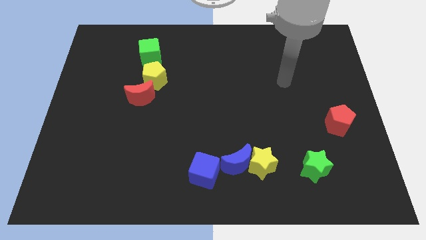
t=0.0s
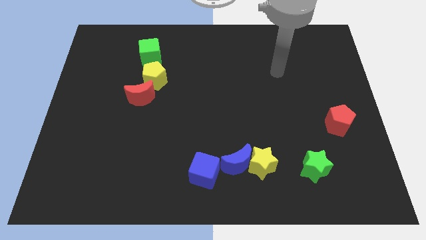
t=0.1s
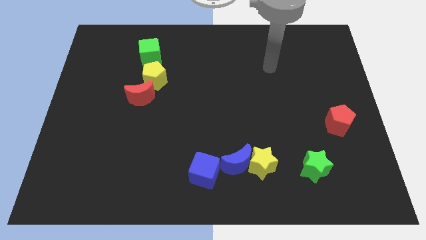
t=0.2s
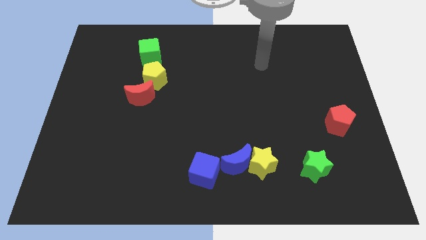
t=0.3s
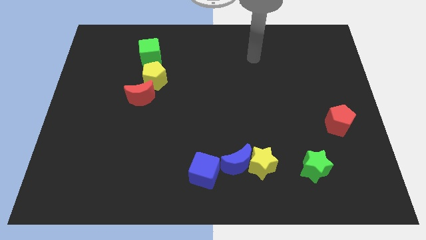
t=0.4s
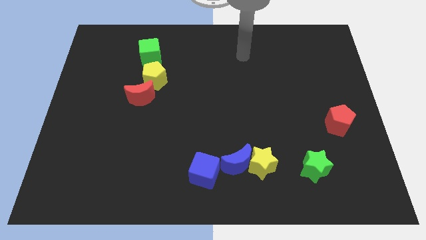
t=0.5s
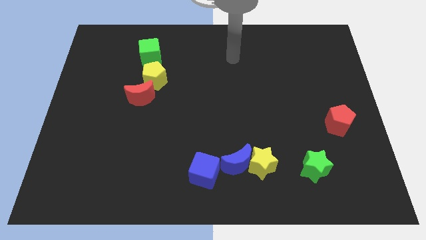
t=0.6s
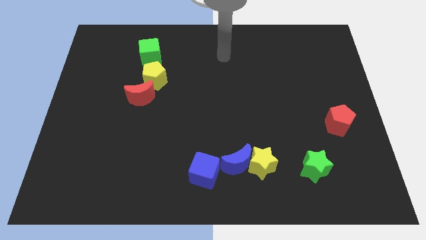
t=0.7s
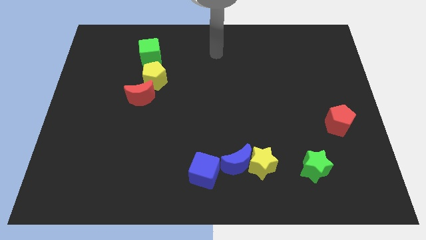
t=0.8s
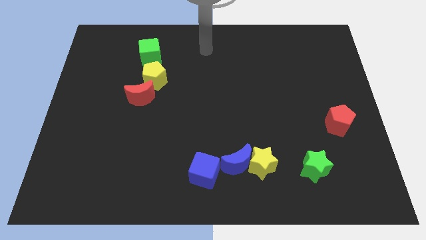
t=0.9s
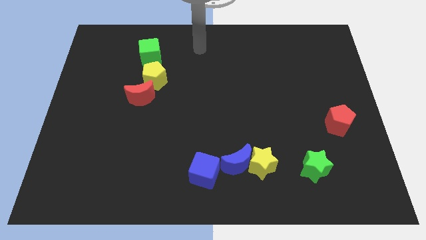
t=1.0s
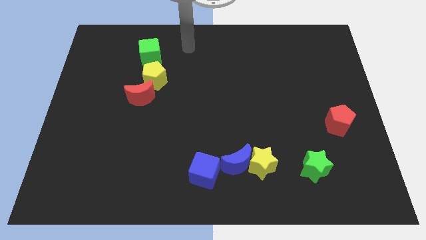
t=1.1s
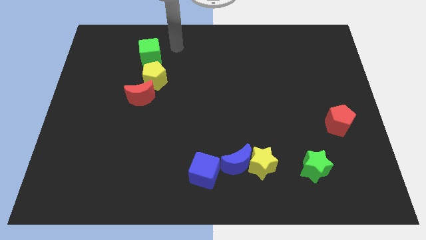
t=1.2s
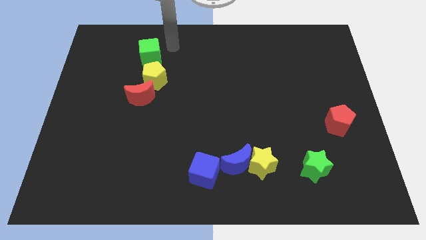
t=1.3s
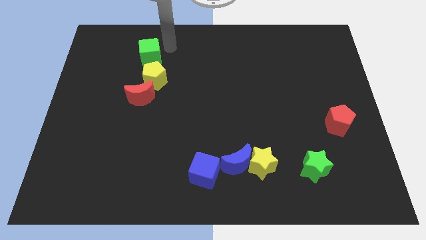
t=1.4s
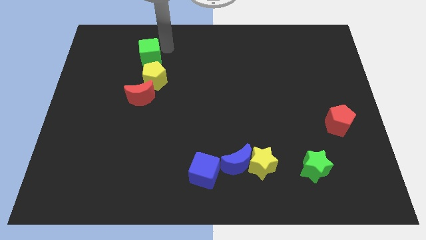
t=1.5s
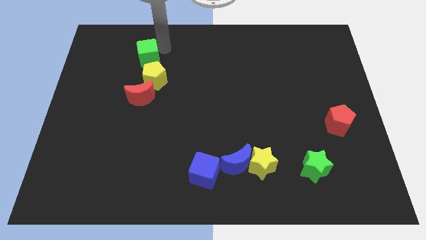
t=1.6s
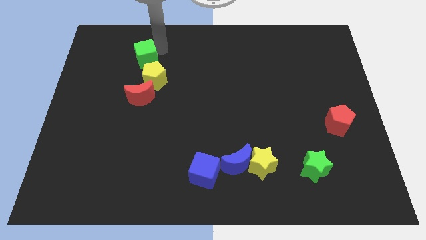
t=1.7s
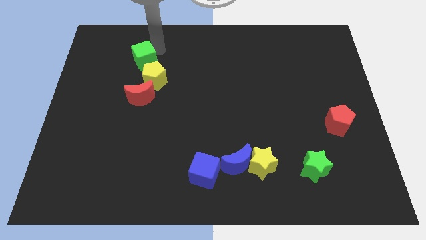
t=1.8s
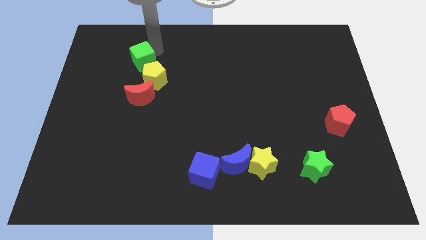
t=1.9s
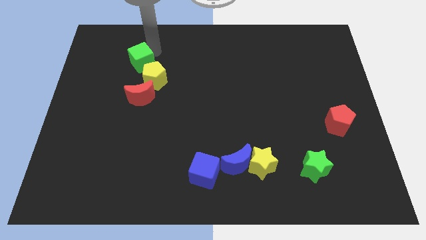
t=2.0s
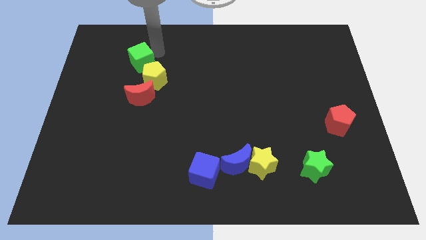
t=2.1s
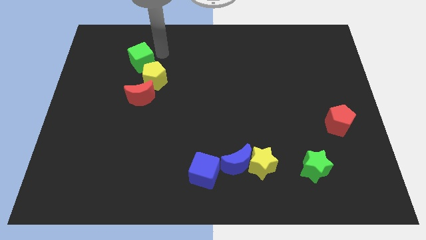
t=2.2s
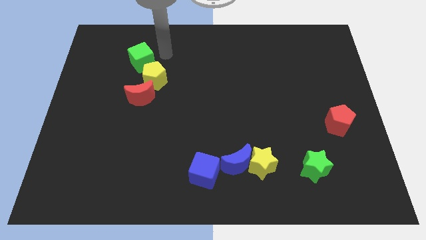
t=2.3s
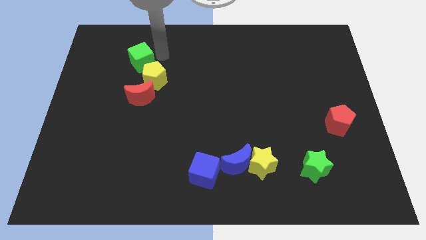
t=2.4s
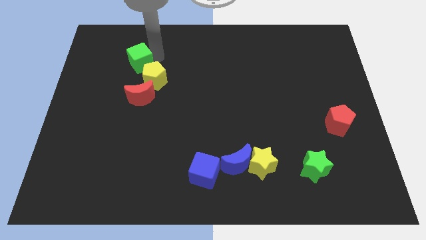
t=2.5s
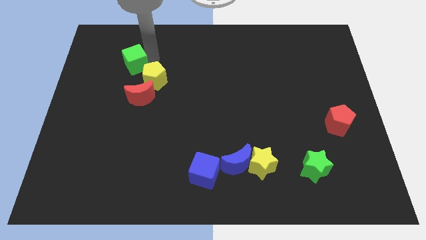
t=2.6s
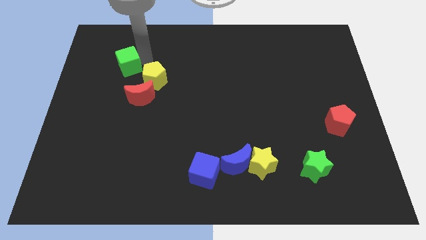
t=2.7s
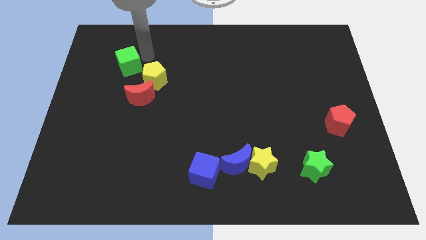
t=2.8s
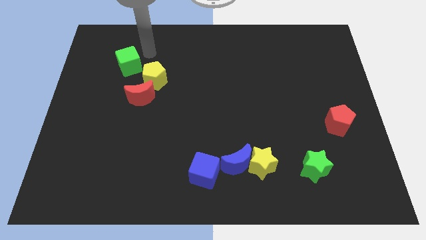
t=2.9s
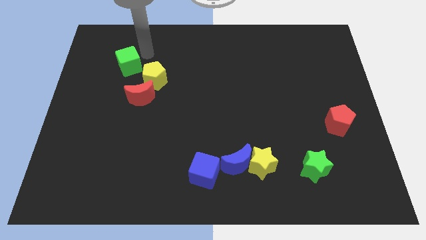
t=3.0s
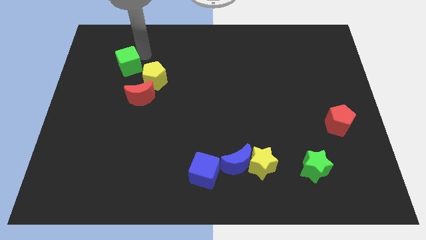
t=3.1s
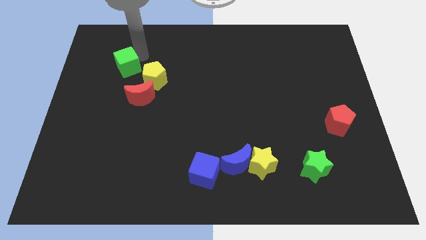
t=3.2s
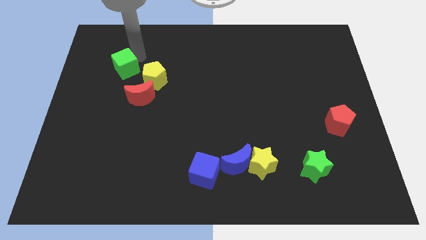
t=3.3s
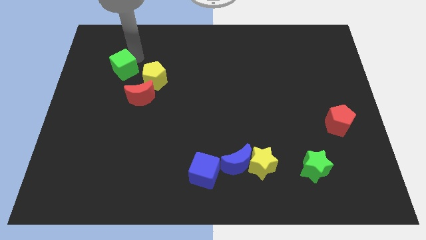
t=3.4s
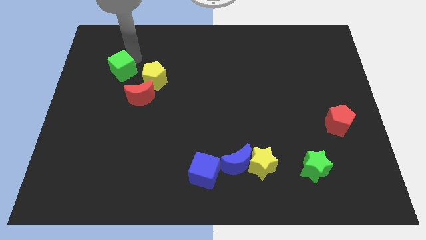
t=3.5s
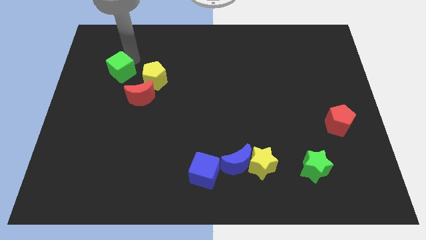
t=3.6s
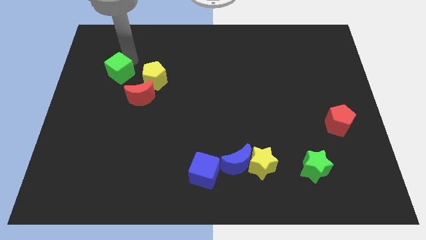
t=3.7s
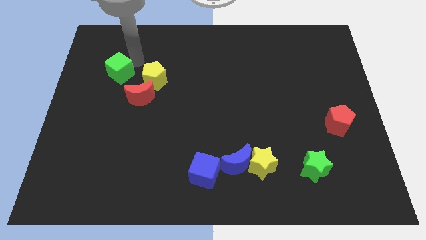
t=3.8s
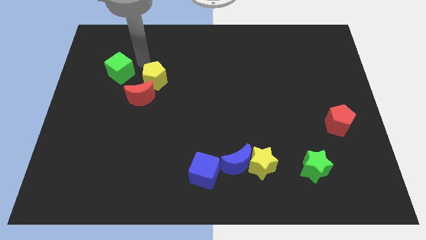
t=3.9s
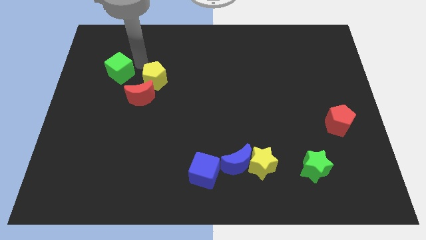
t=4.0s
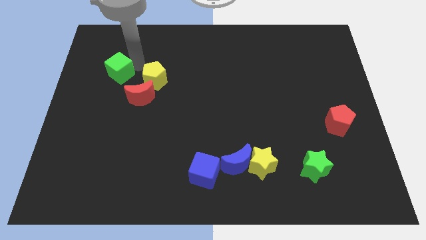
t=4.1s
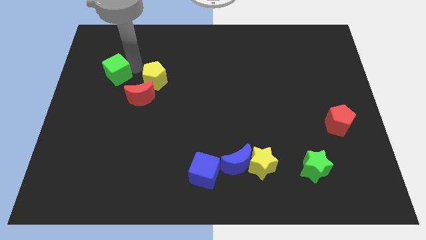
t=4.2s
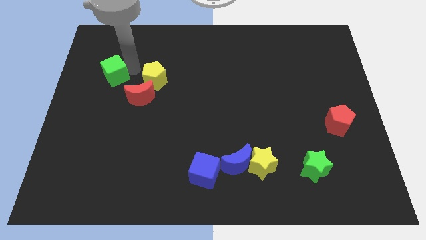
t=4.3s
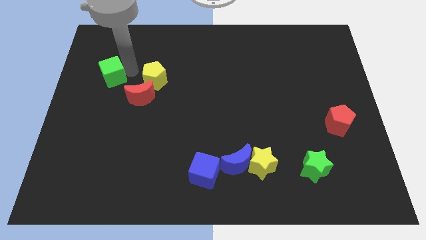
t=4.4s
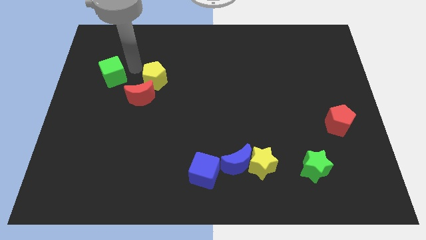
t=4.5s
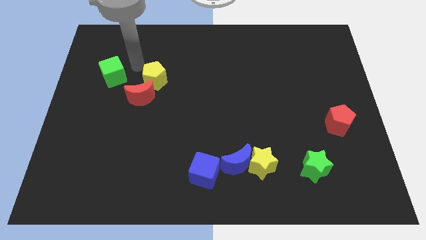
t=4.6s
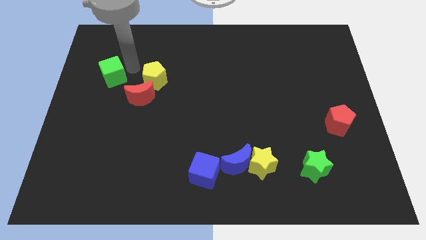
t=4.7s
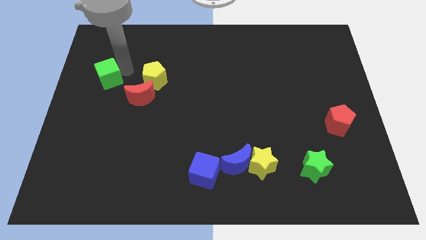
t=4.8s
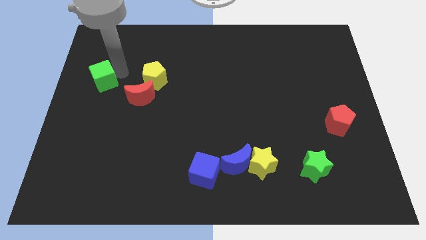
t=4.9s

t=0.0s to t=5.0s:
move the green cube to the left side of the board

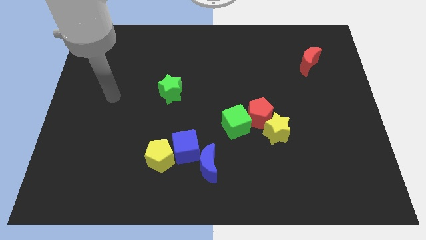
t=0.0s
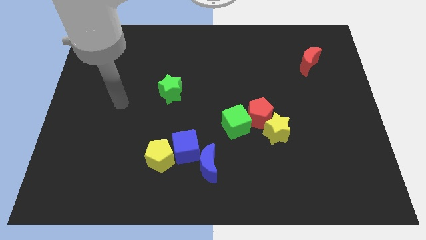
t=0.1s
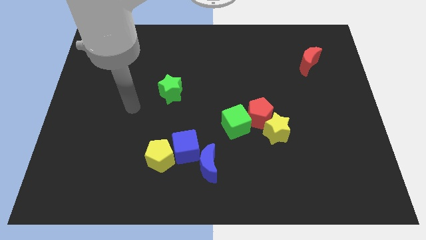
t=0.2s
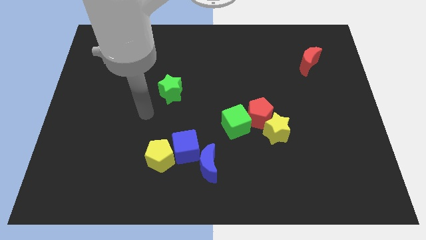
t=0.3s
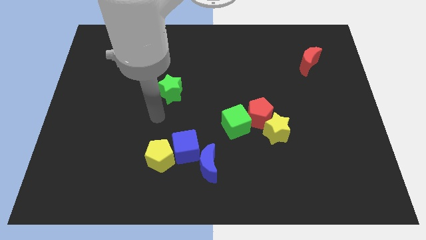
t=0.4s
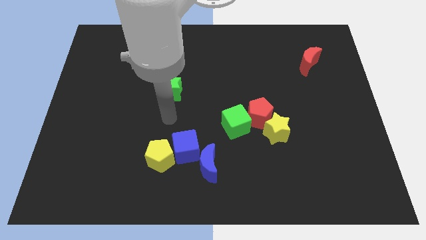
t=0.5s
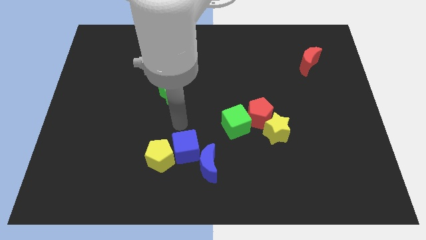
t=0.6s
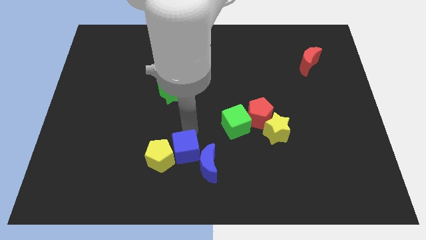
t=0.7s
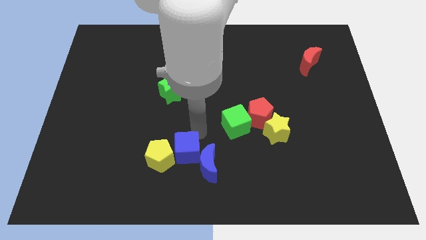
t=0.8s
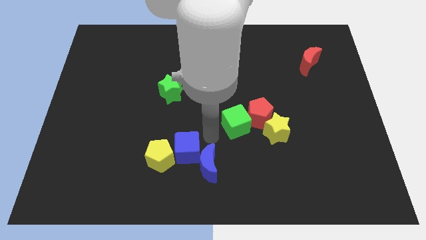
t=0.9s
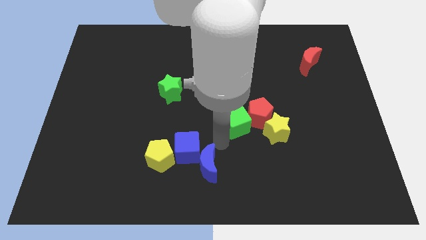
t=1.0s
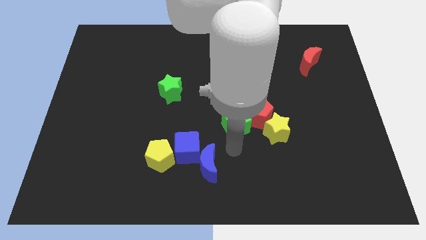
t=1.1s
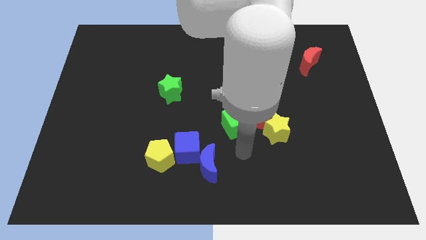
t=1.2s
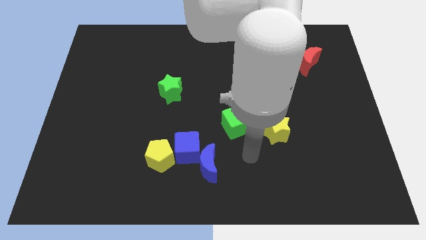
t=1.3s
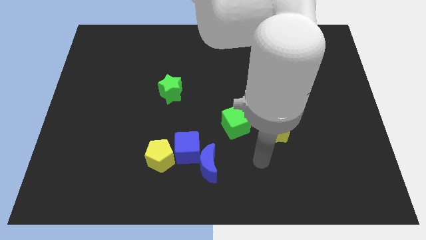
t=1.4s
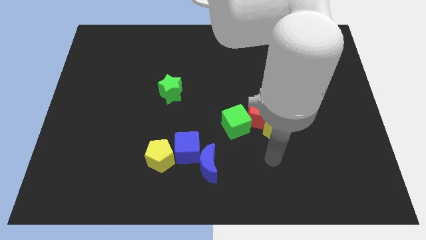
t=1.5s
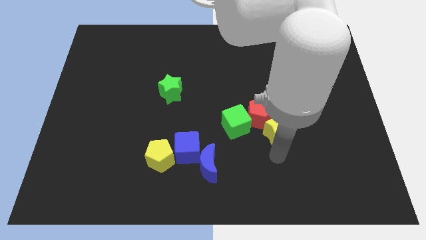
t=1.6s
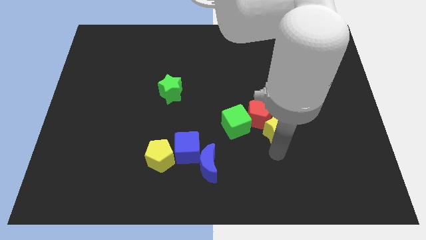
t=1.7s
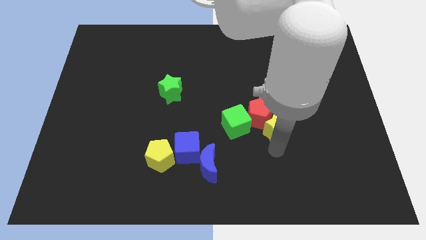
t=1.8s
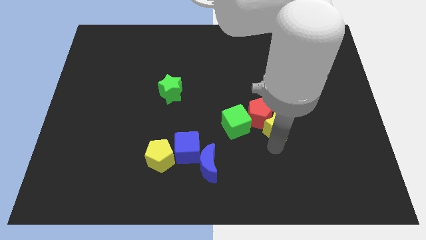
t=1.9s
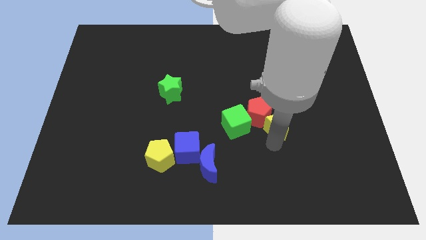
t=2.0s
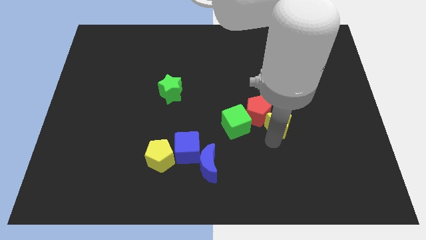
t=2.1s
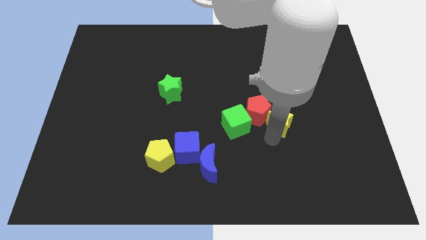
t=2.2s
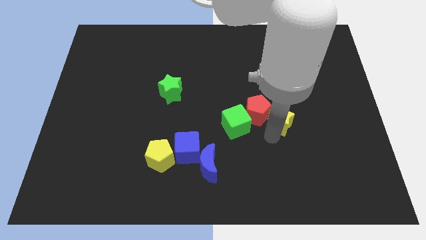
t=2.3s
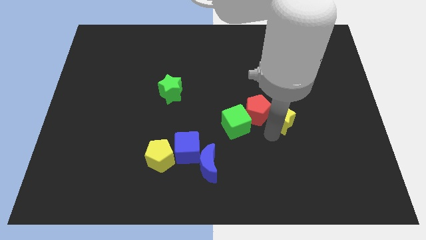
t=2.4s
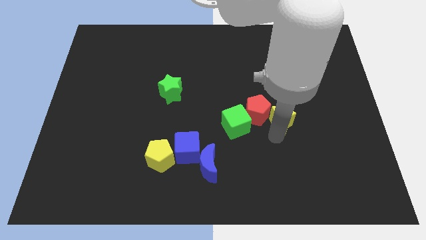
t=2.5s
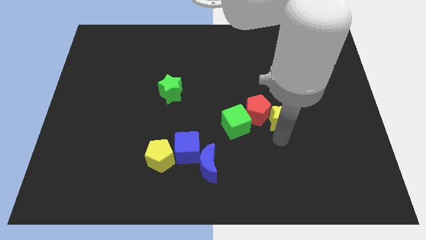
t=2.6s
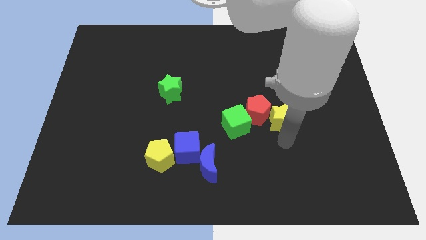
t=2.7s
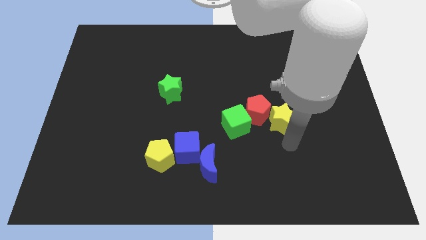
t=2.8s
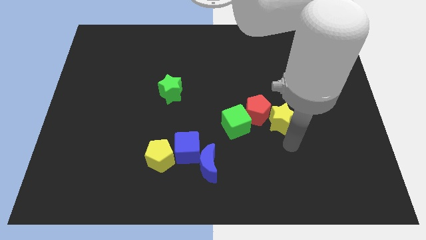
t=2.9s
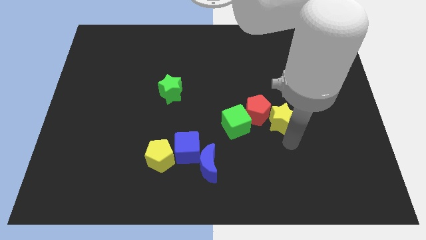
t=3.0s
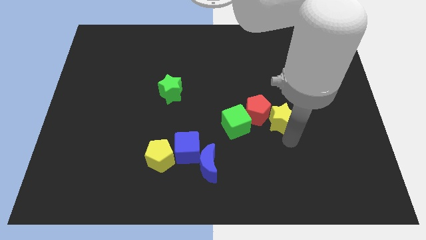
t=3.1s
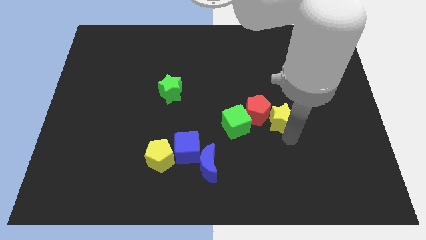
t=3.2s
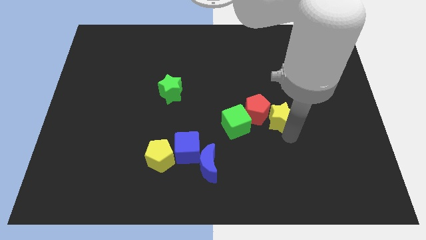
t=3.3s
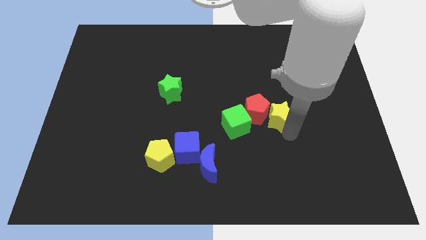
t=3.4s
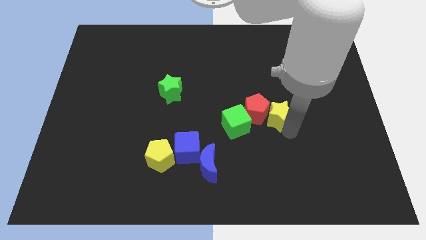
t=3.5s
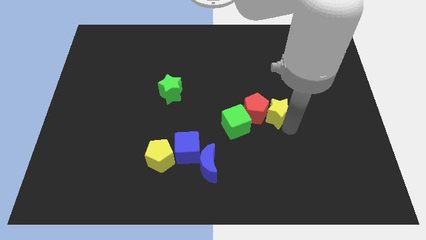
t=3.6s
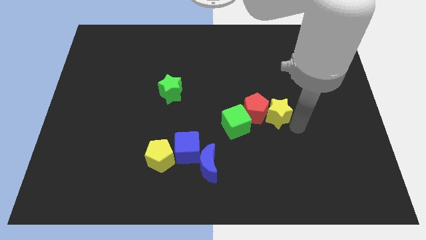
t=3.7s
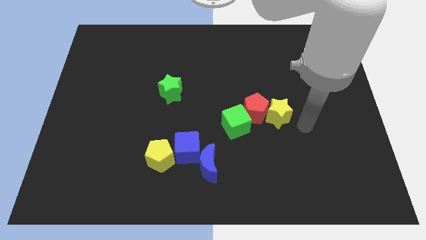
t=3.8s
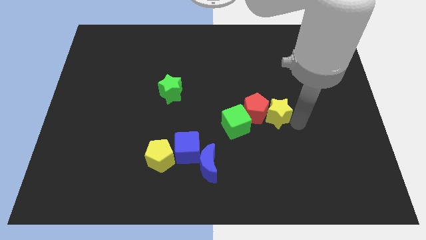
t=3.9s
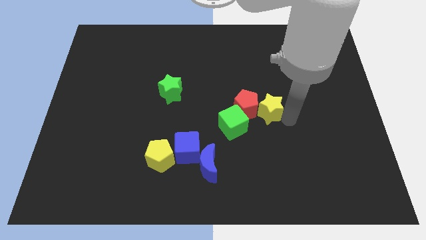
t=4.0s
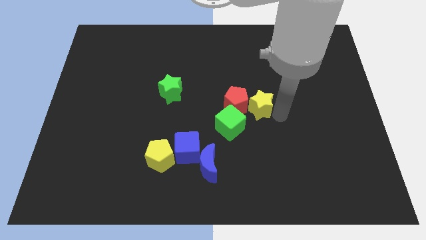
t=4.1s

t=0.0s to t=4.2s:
move the yellow star to the center of the board
